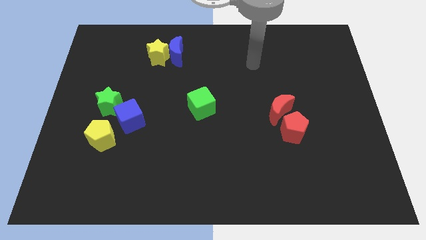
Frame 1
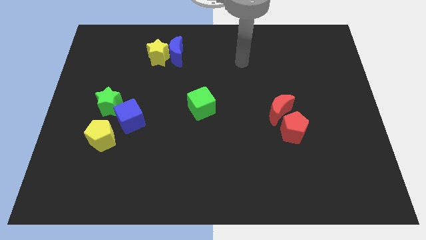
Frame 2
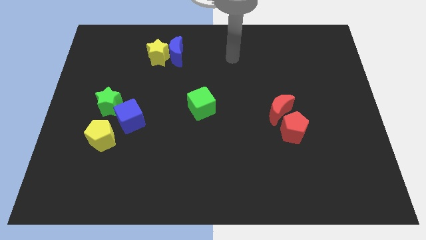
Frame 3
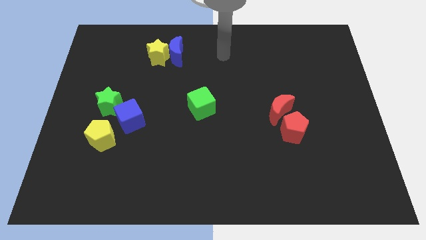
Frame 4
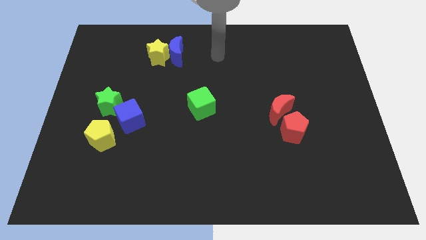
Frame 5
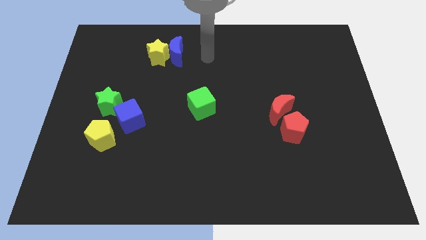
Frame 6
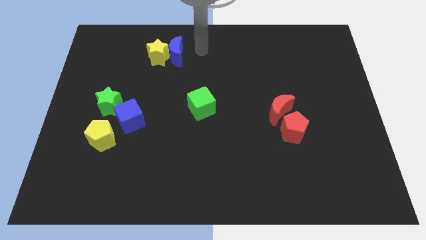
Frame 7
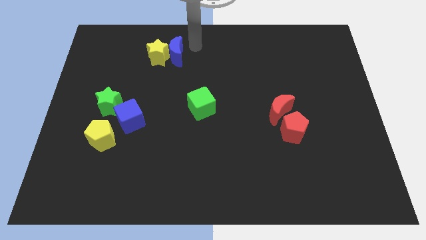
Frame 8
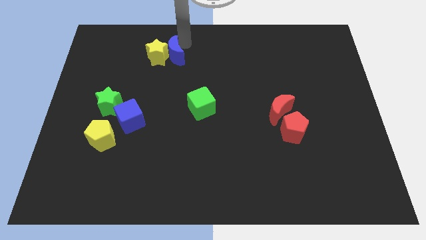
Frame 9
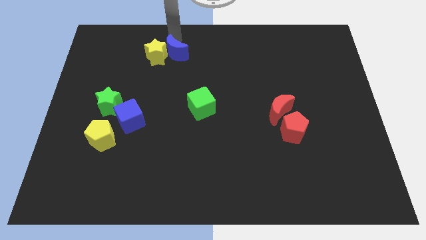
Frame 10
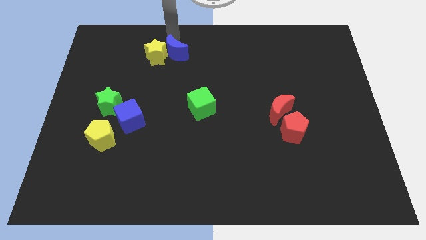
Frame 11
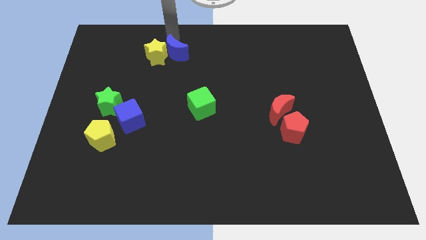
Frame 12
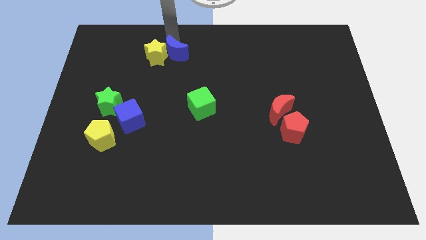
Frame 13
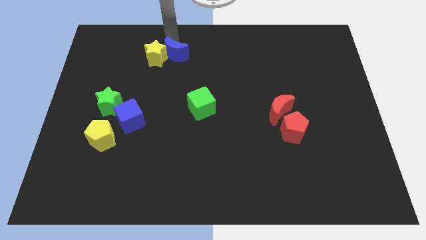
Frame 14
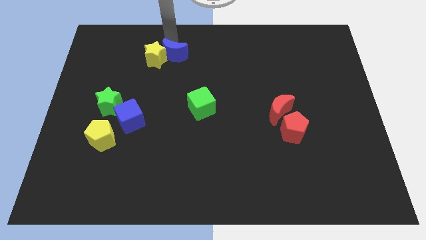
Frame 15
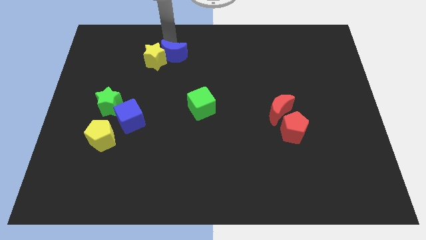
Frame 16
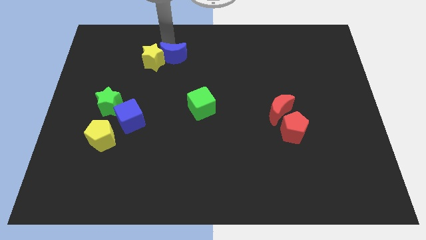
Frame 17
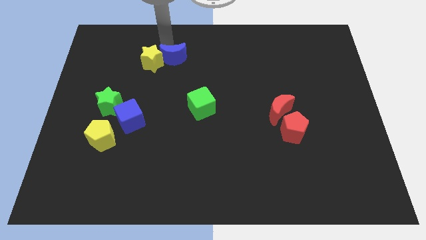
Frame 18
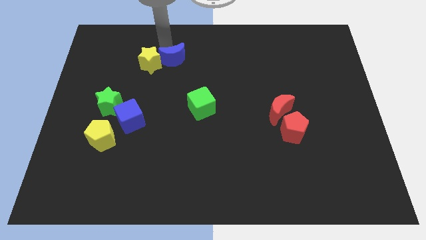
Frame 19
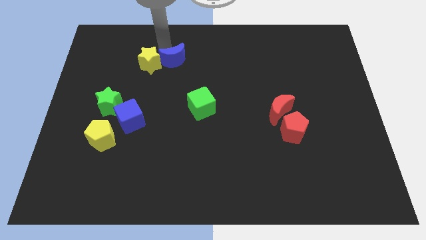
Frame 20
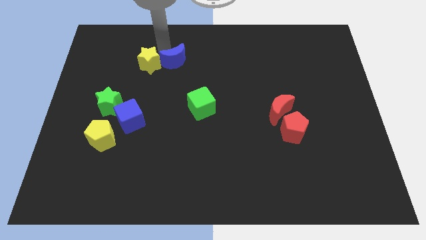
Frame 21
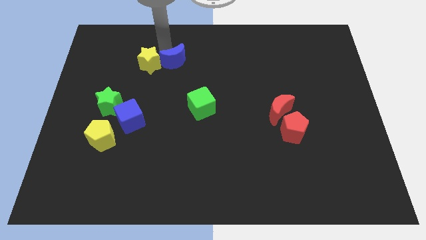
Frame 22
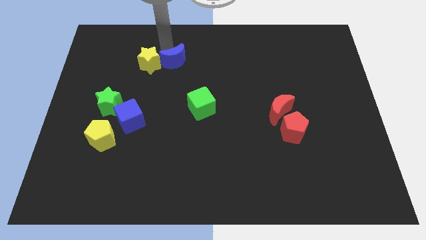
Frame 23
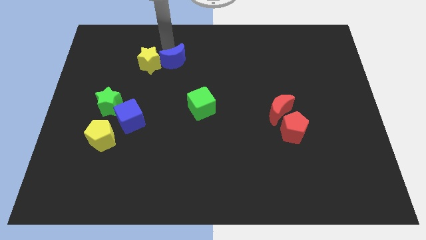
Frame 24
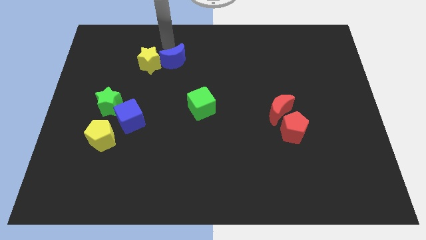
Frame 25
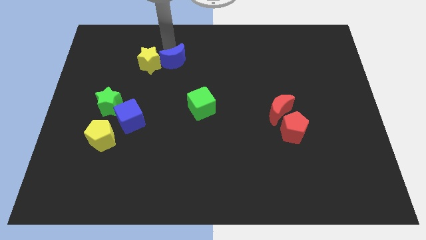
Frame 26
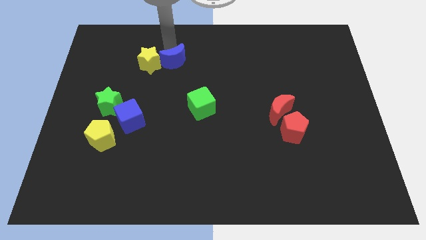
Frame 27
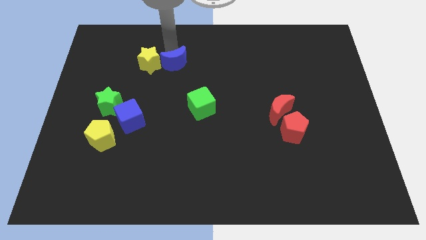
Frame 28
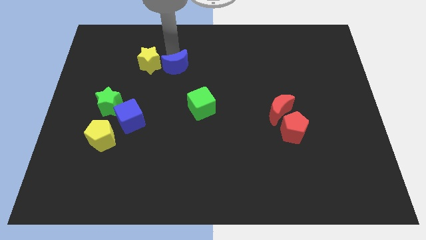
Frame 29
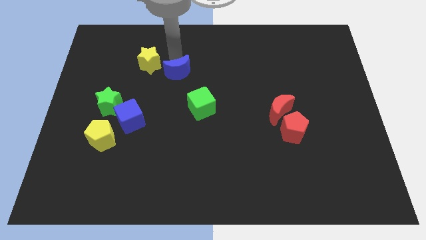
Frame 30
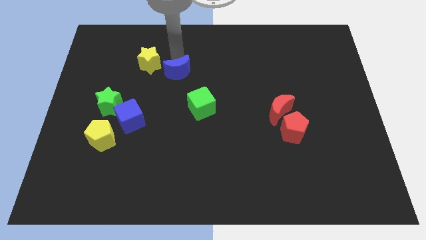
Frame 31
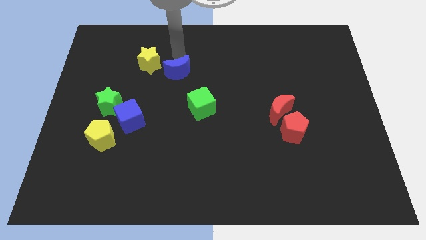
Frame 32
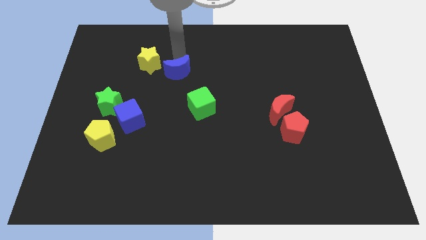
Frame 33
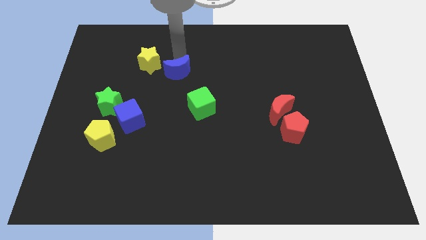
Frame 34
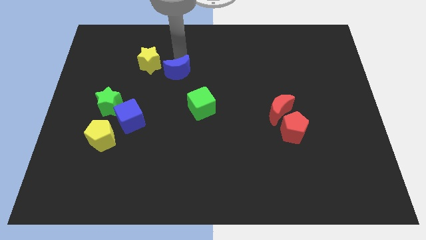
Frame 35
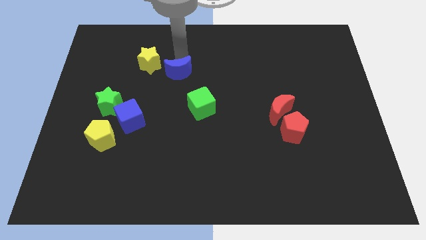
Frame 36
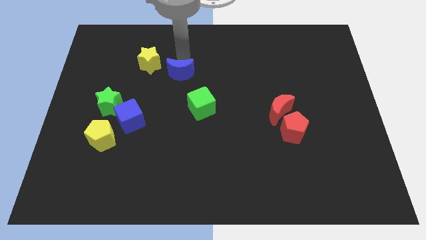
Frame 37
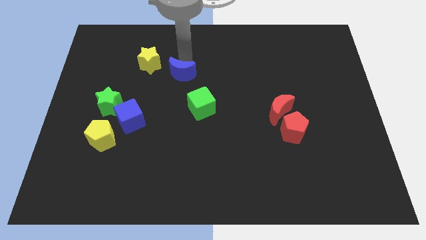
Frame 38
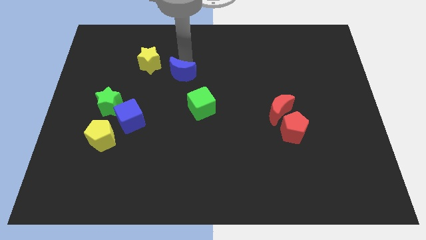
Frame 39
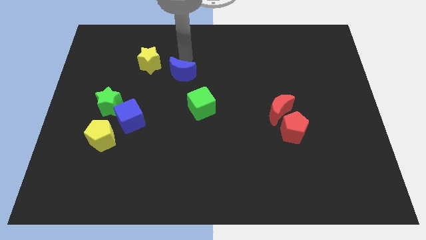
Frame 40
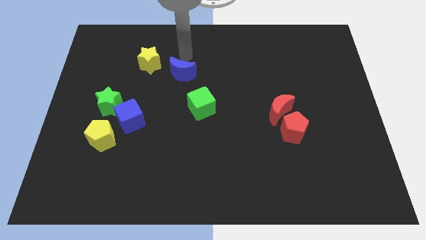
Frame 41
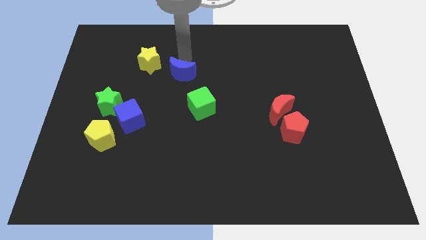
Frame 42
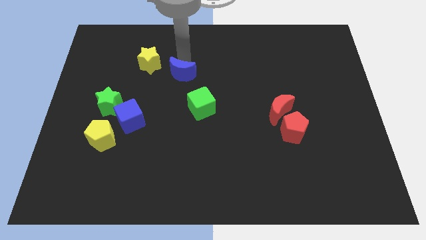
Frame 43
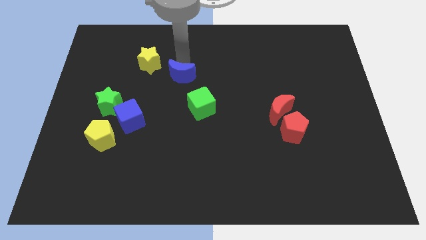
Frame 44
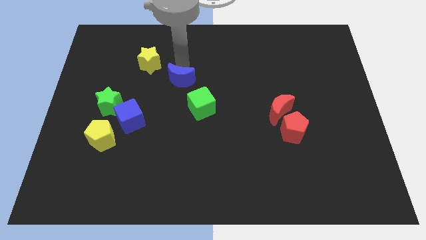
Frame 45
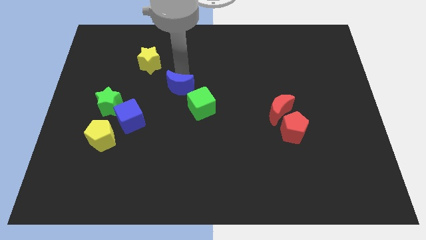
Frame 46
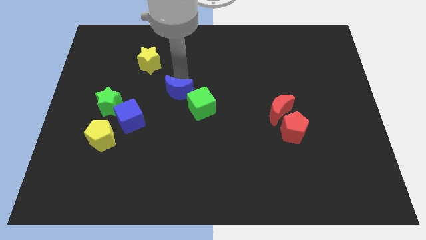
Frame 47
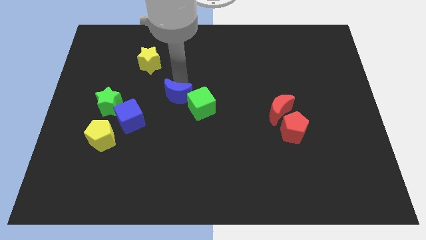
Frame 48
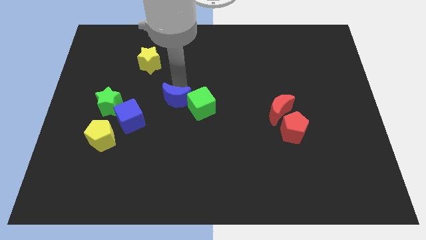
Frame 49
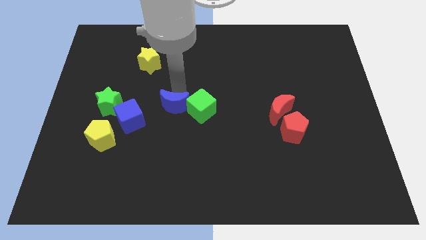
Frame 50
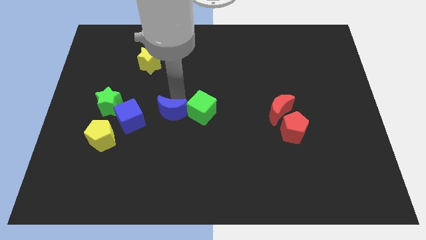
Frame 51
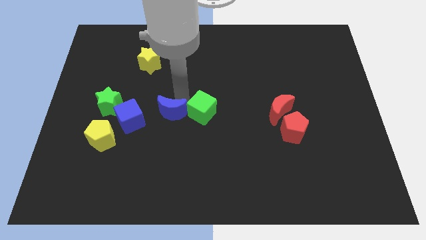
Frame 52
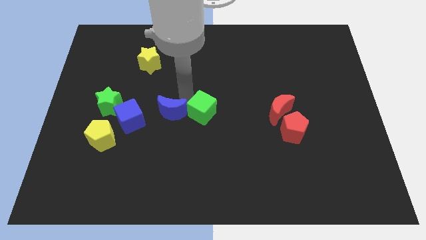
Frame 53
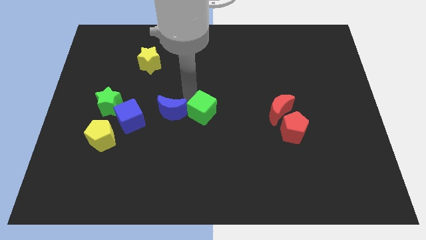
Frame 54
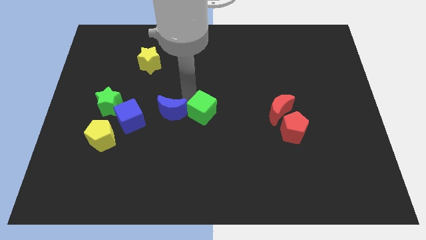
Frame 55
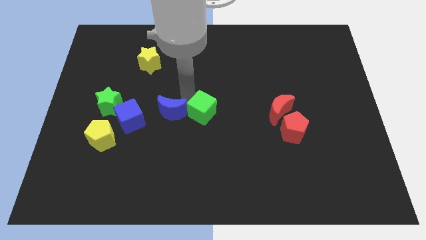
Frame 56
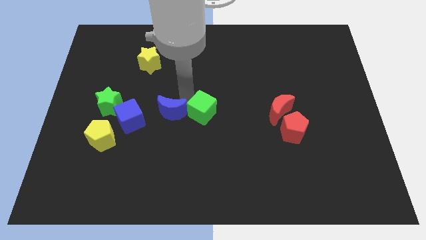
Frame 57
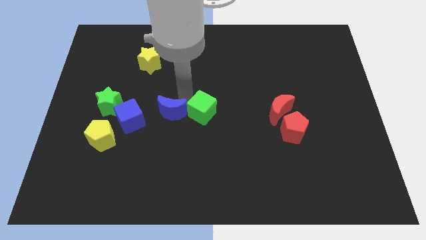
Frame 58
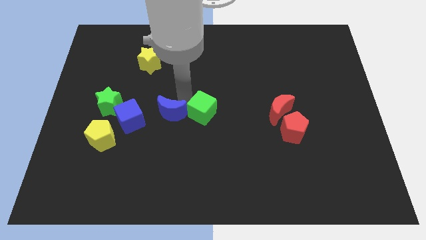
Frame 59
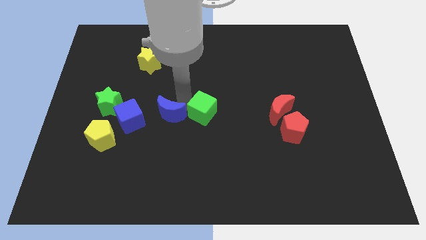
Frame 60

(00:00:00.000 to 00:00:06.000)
slide the blue moon down

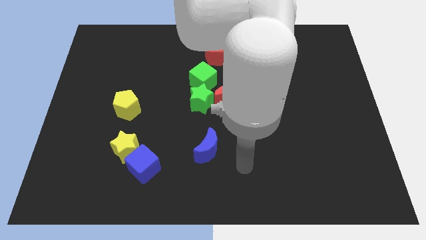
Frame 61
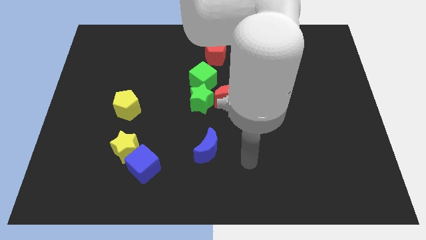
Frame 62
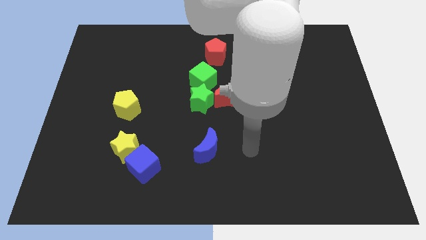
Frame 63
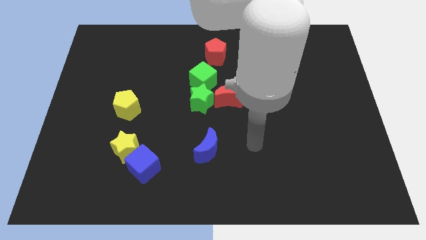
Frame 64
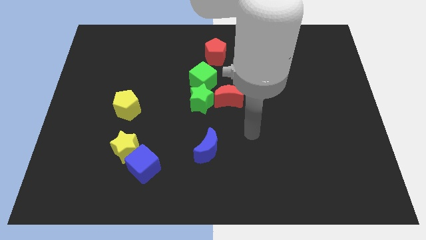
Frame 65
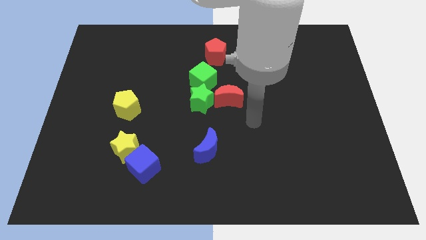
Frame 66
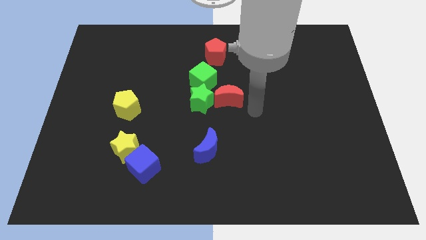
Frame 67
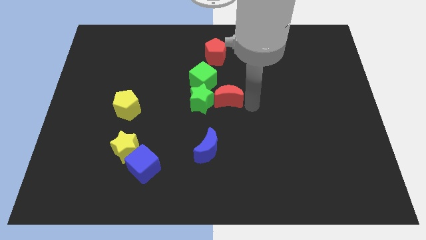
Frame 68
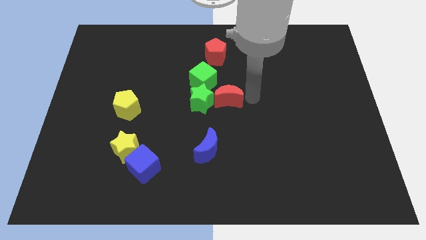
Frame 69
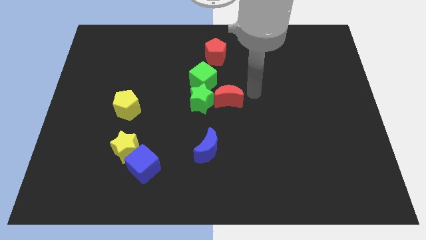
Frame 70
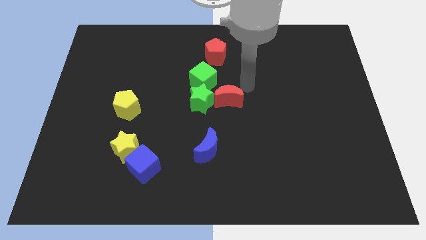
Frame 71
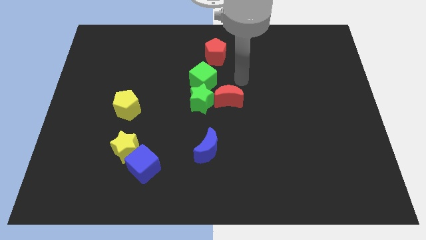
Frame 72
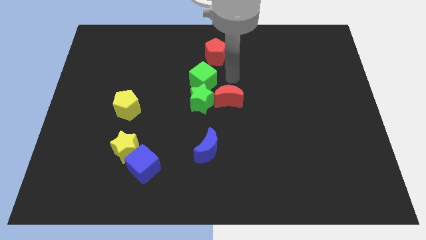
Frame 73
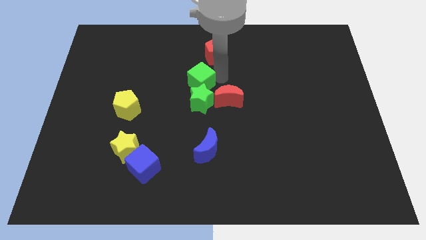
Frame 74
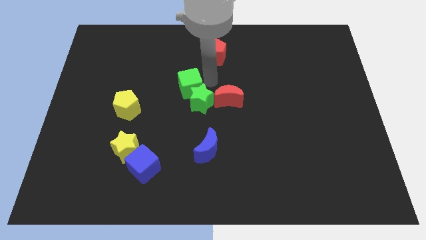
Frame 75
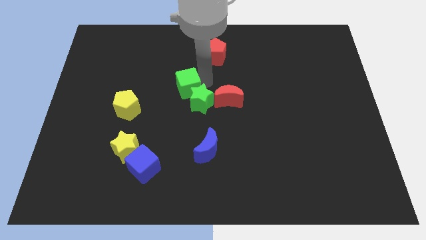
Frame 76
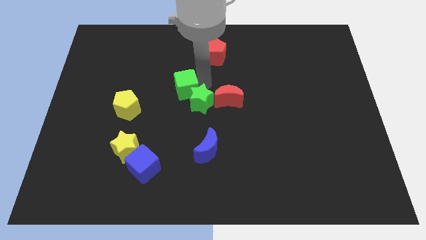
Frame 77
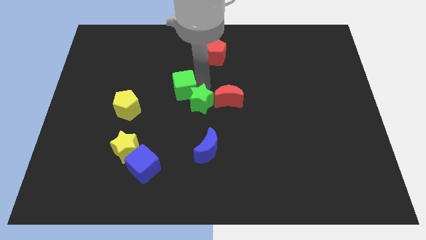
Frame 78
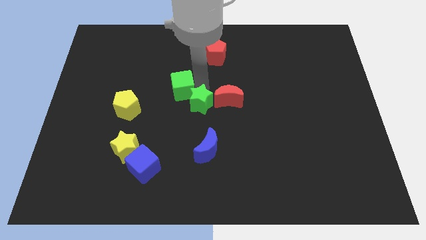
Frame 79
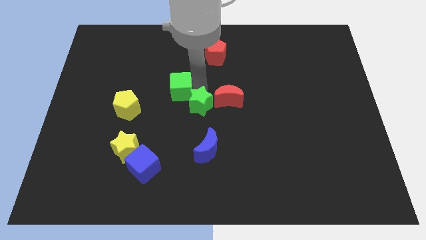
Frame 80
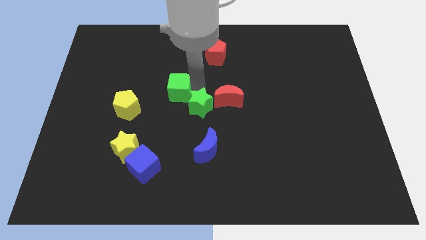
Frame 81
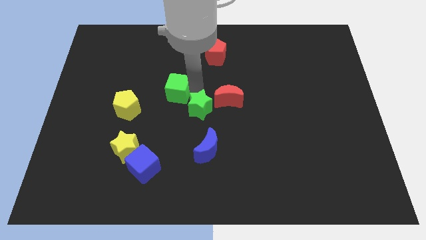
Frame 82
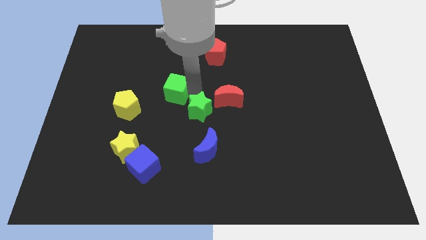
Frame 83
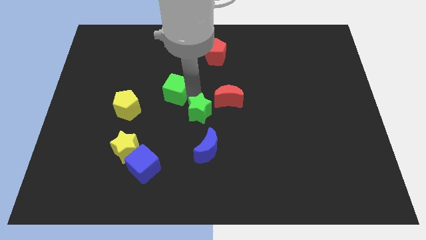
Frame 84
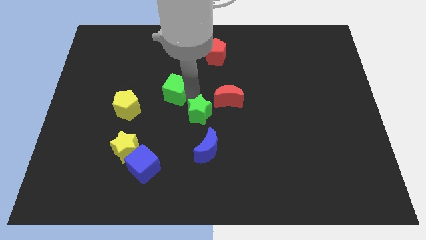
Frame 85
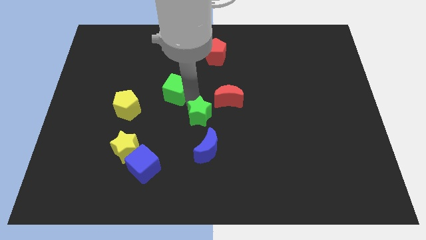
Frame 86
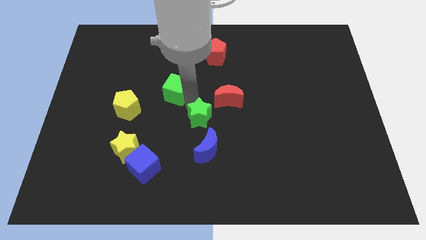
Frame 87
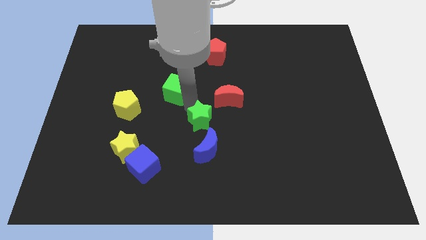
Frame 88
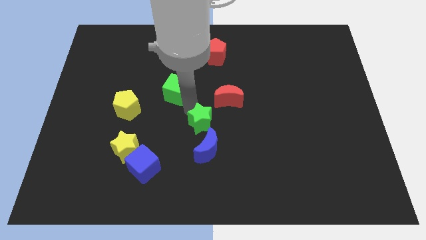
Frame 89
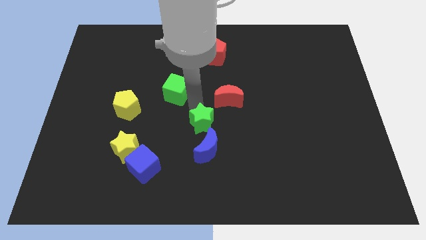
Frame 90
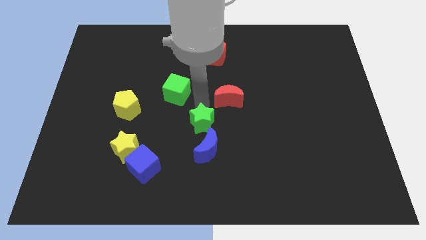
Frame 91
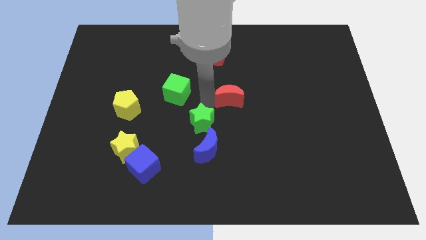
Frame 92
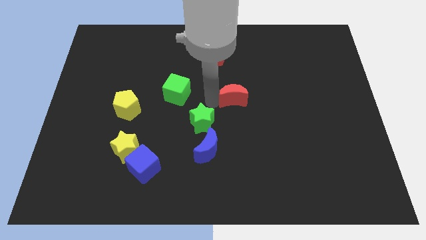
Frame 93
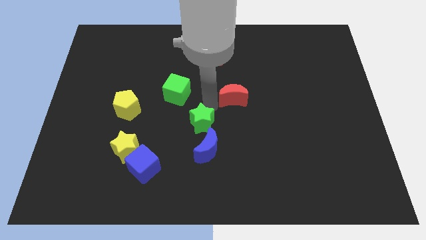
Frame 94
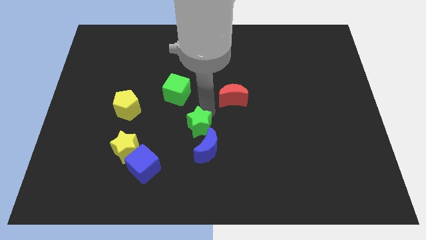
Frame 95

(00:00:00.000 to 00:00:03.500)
slightly push the green star downwards
